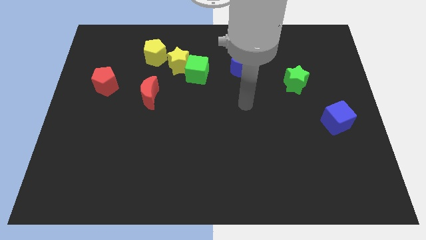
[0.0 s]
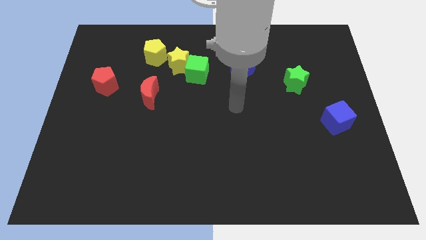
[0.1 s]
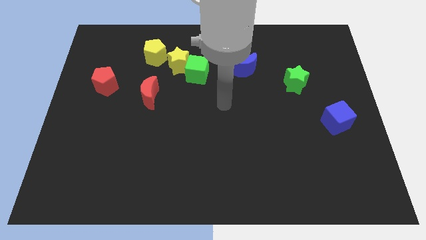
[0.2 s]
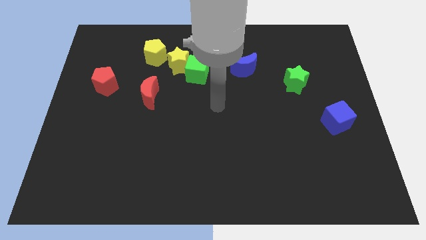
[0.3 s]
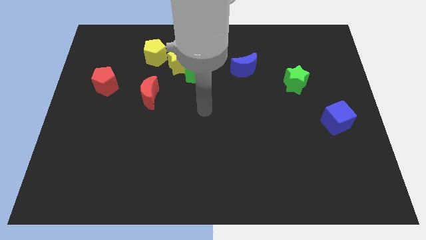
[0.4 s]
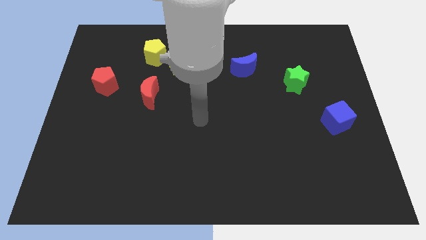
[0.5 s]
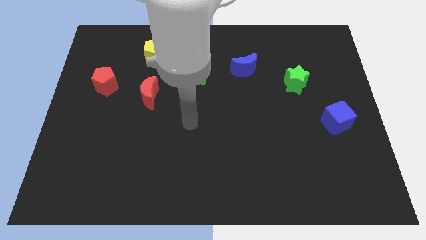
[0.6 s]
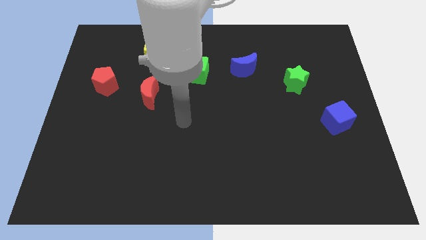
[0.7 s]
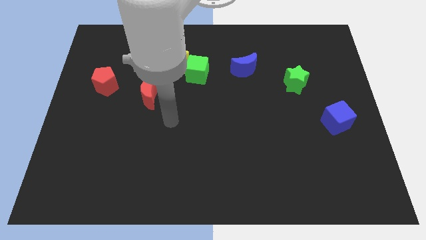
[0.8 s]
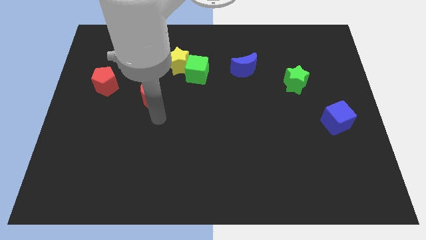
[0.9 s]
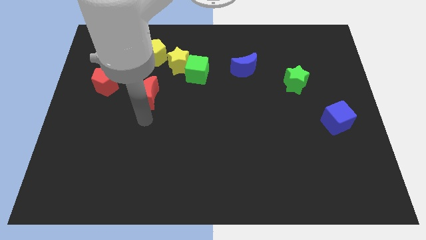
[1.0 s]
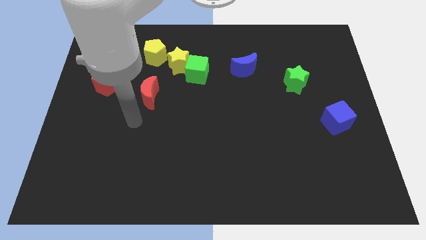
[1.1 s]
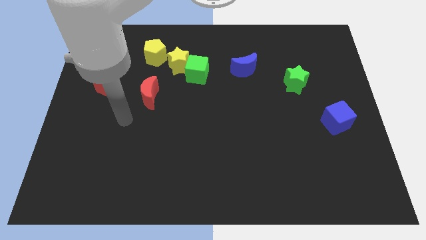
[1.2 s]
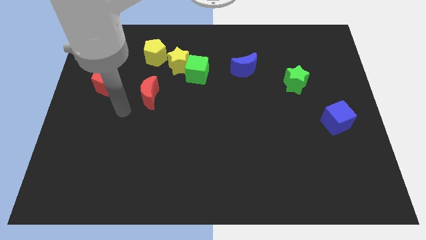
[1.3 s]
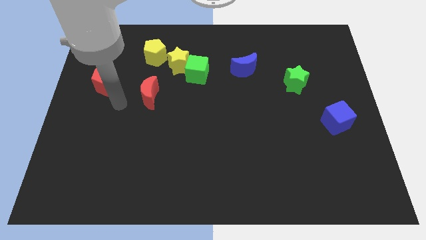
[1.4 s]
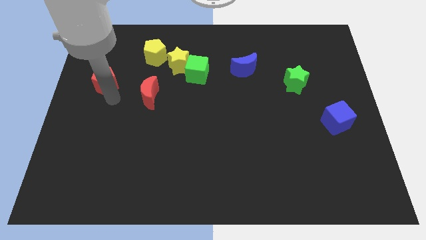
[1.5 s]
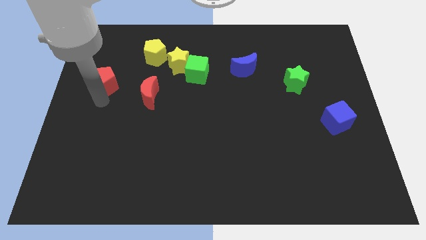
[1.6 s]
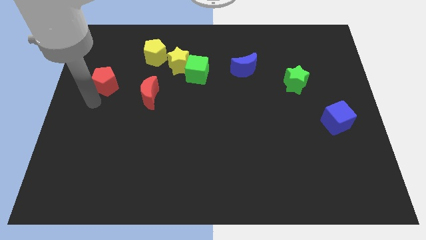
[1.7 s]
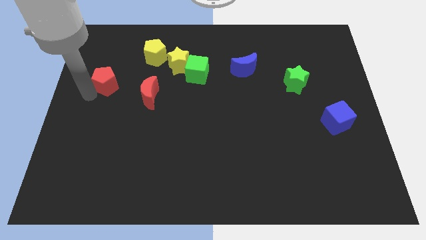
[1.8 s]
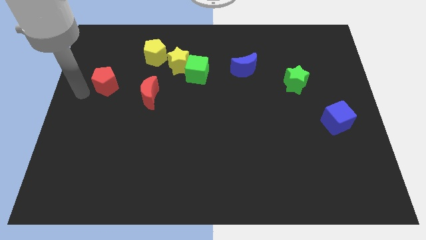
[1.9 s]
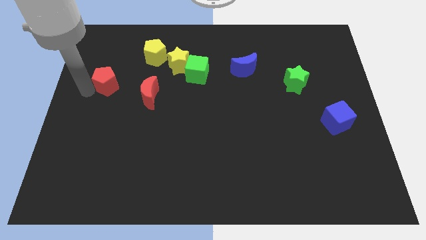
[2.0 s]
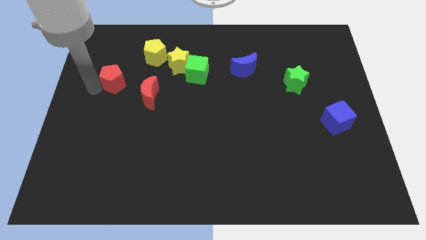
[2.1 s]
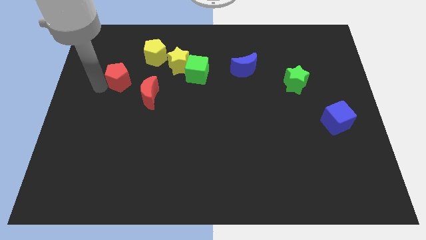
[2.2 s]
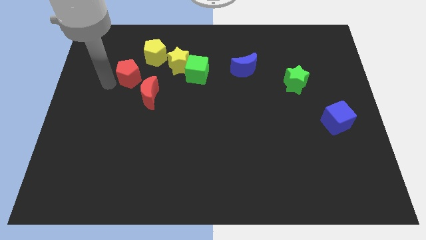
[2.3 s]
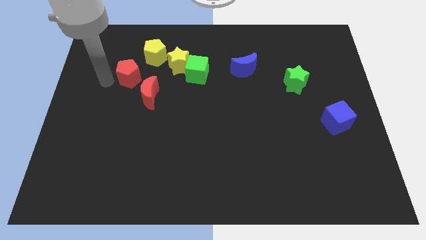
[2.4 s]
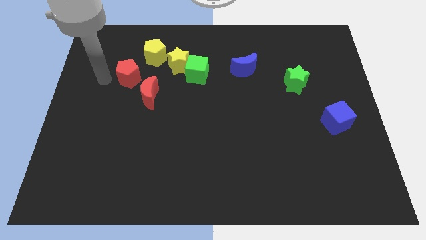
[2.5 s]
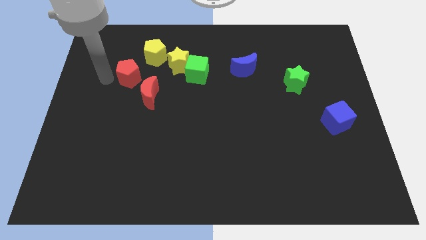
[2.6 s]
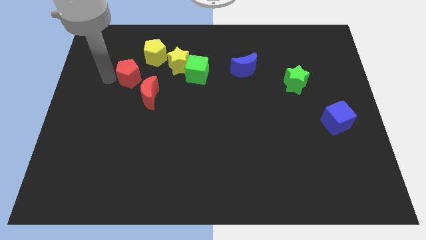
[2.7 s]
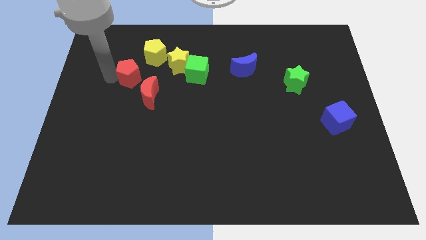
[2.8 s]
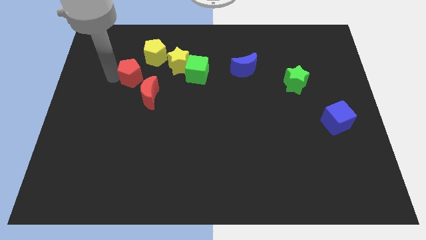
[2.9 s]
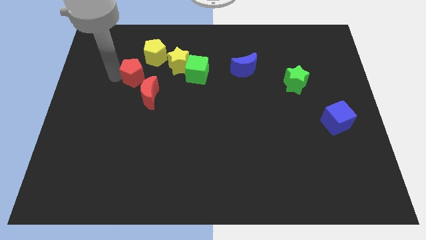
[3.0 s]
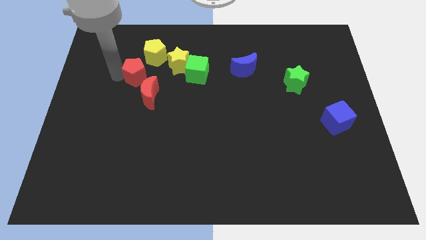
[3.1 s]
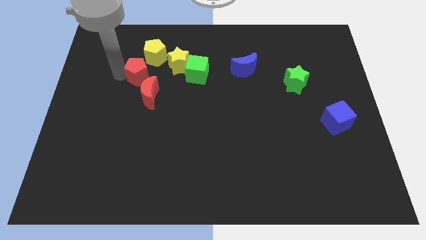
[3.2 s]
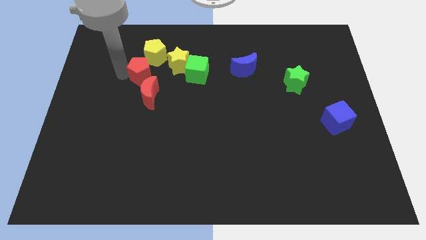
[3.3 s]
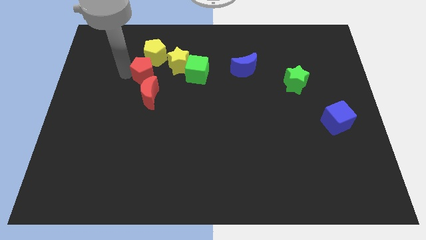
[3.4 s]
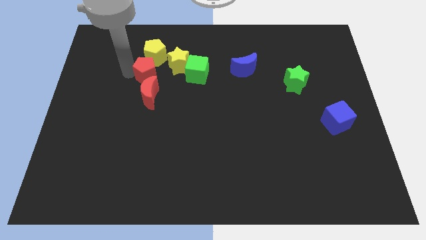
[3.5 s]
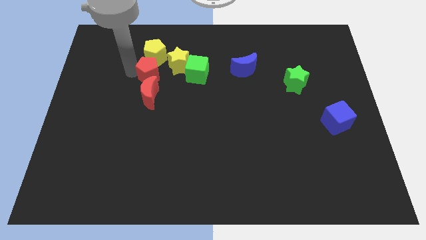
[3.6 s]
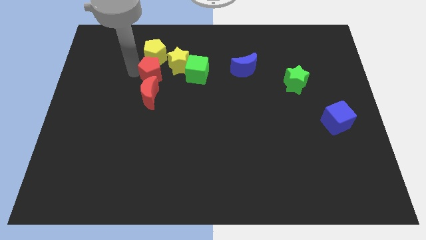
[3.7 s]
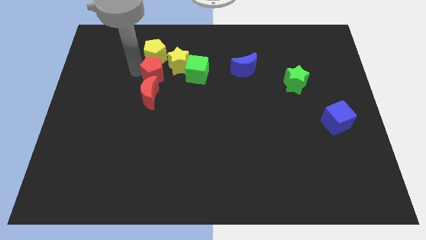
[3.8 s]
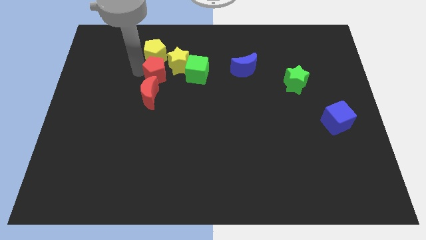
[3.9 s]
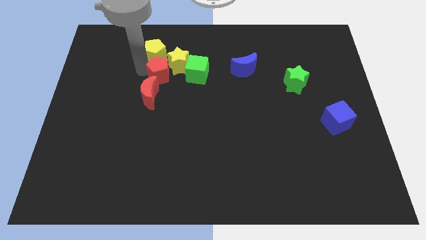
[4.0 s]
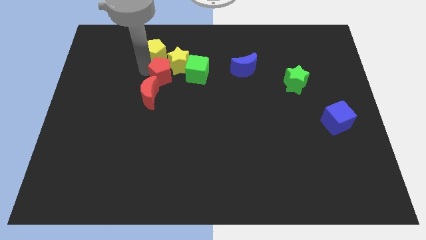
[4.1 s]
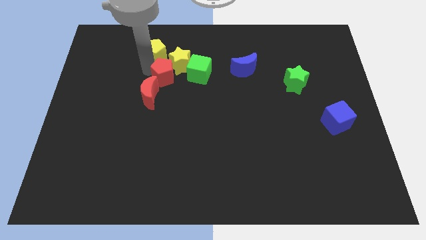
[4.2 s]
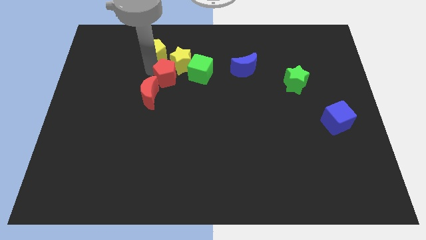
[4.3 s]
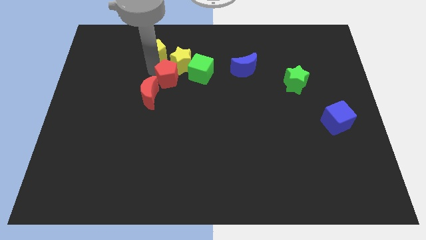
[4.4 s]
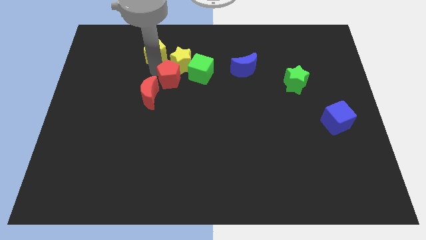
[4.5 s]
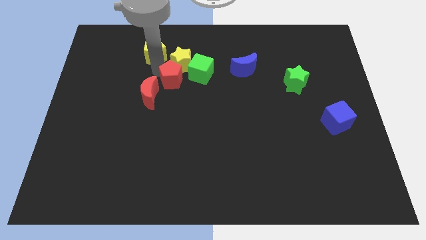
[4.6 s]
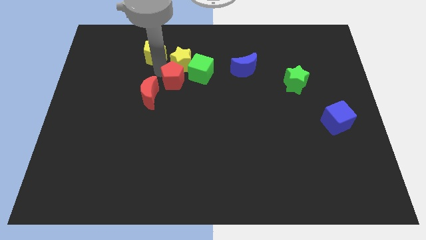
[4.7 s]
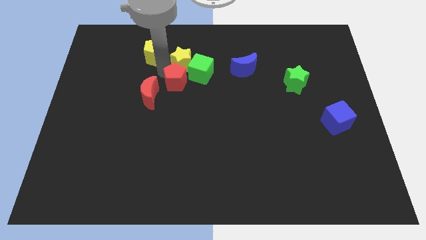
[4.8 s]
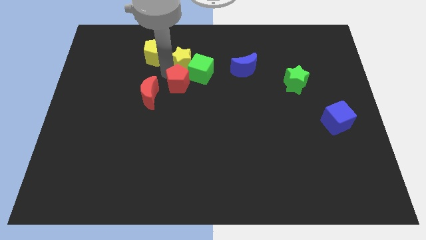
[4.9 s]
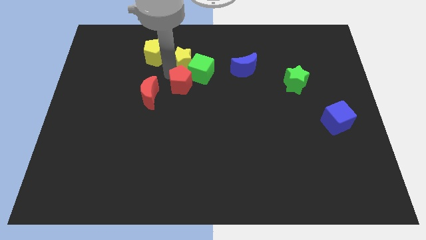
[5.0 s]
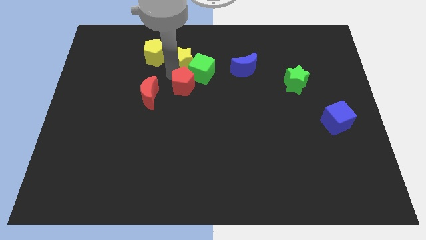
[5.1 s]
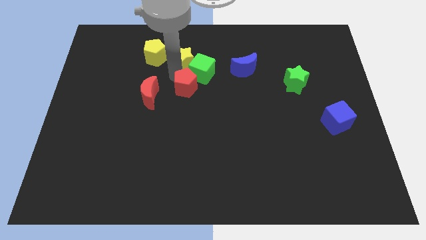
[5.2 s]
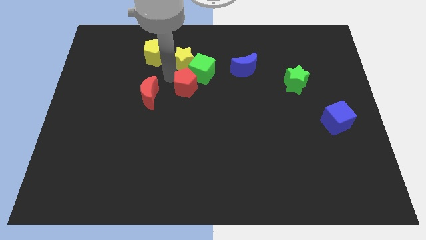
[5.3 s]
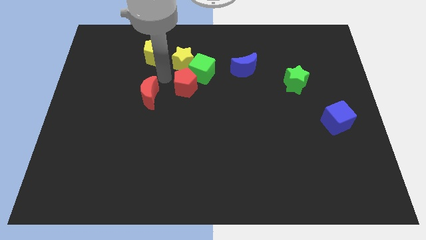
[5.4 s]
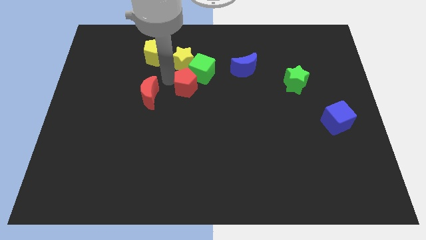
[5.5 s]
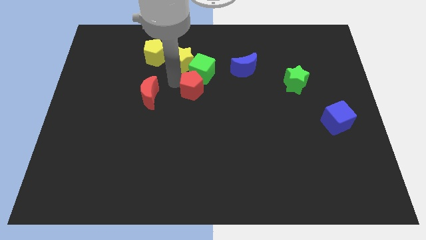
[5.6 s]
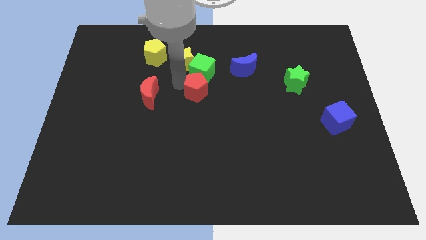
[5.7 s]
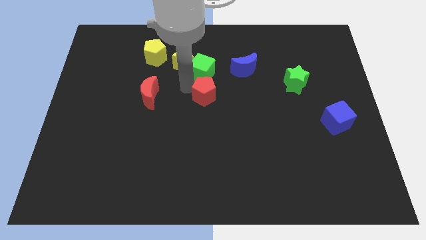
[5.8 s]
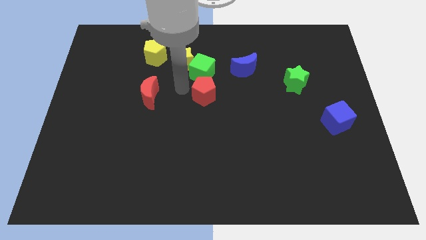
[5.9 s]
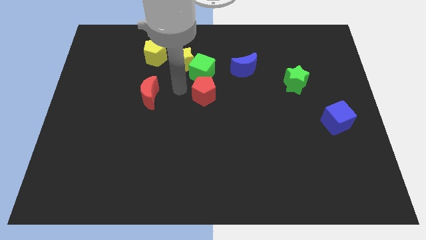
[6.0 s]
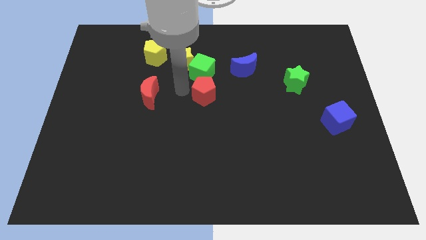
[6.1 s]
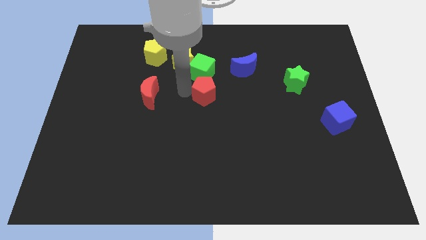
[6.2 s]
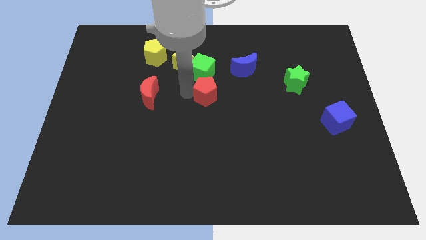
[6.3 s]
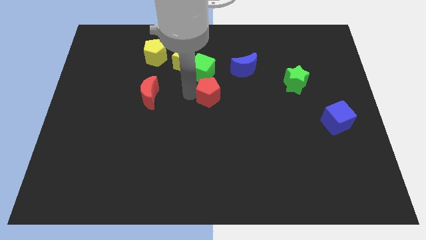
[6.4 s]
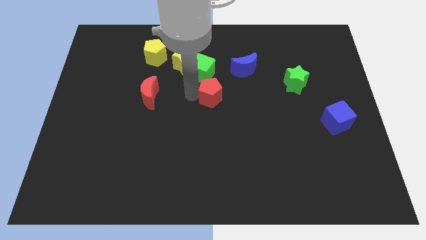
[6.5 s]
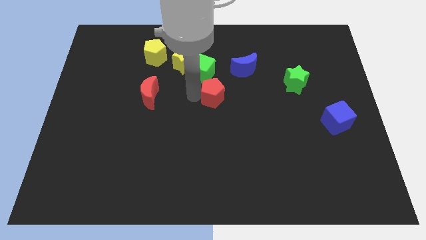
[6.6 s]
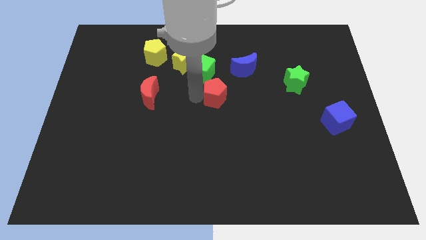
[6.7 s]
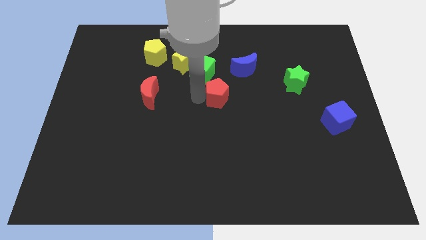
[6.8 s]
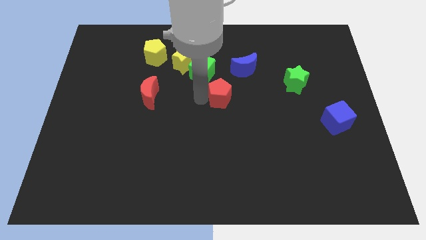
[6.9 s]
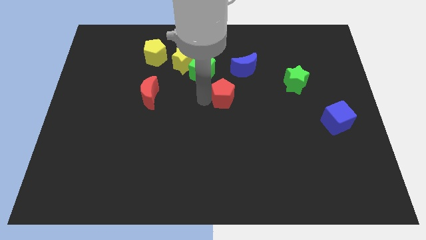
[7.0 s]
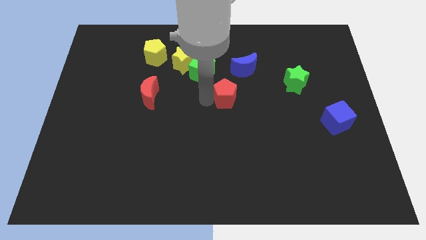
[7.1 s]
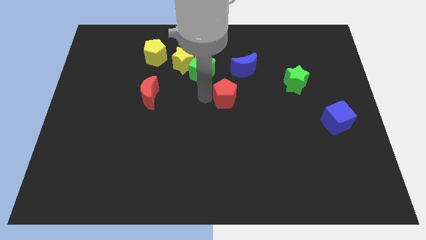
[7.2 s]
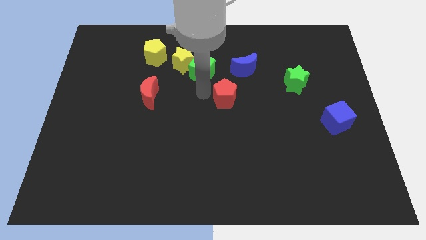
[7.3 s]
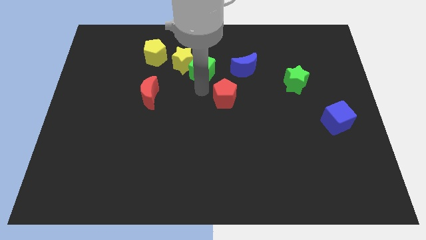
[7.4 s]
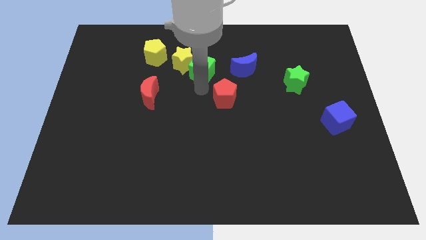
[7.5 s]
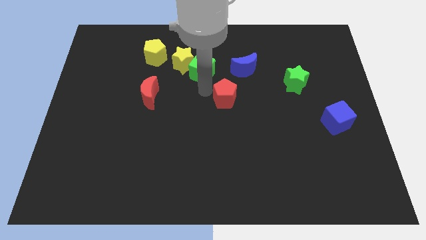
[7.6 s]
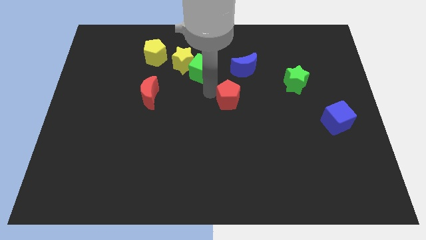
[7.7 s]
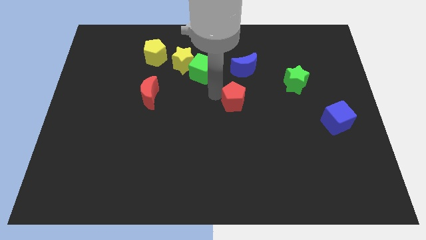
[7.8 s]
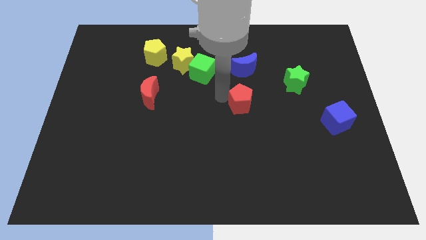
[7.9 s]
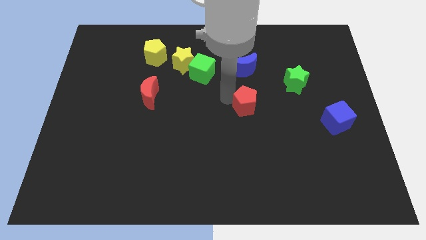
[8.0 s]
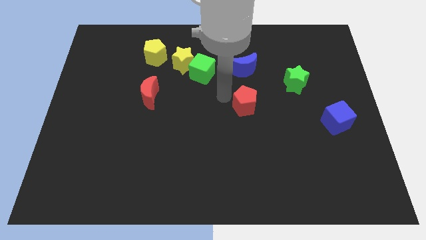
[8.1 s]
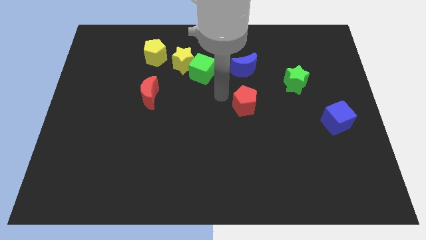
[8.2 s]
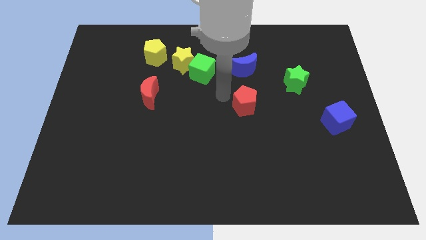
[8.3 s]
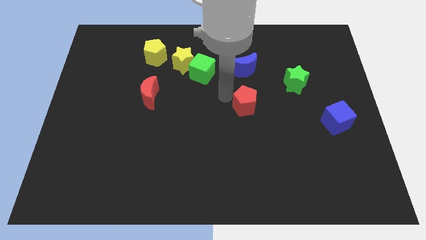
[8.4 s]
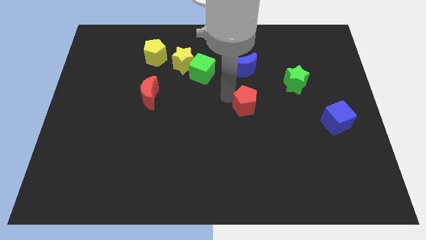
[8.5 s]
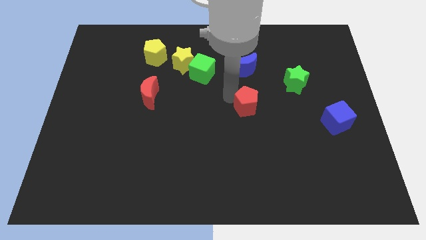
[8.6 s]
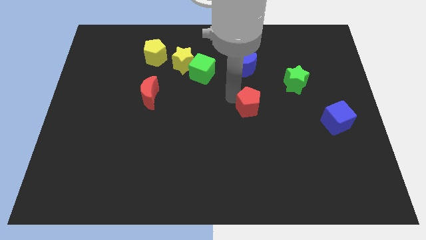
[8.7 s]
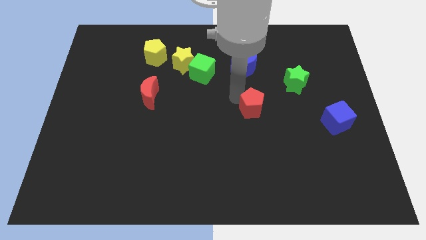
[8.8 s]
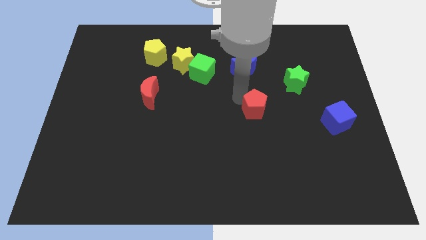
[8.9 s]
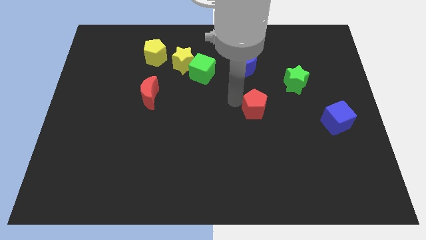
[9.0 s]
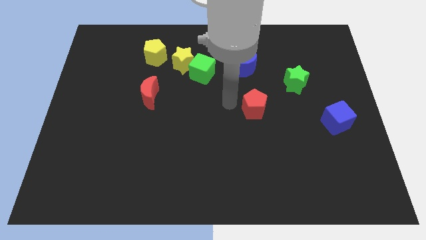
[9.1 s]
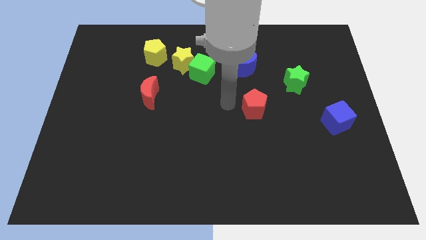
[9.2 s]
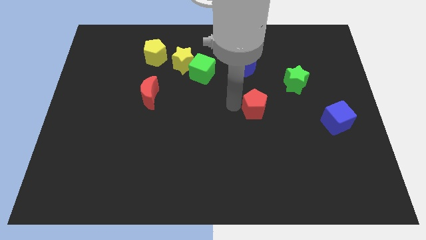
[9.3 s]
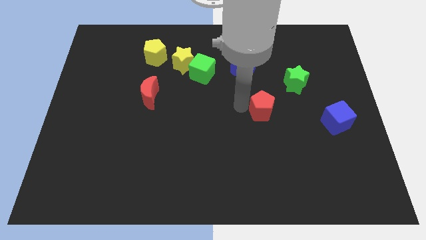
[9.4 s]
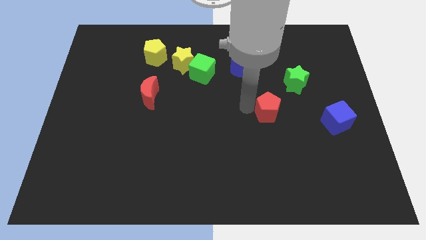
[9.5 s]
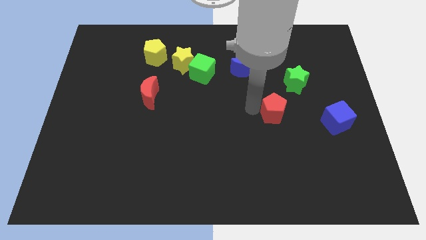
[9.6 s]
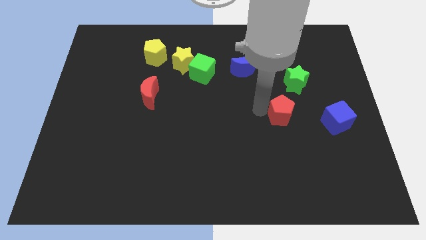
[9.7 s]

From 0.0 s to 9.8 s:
push the red pentagon to the bottom side of the green star
